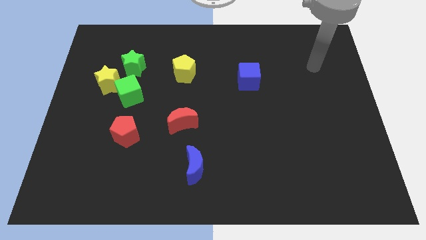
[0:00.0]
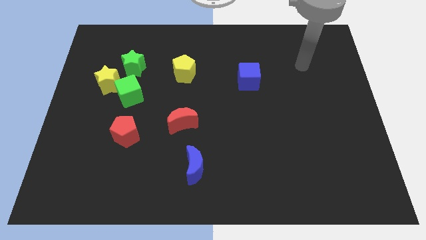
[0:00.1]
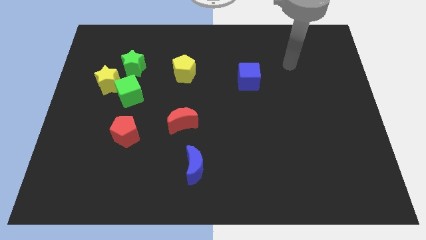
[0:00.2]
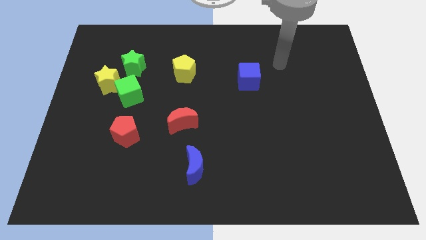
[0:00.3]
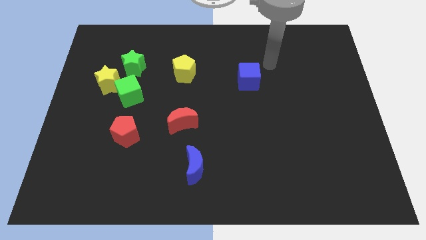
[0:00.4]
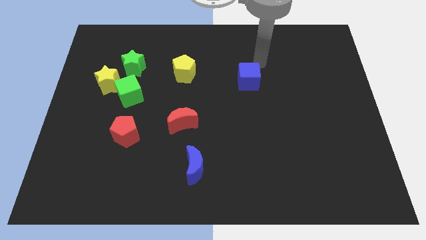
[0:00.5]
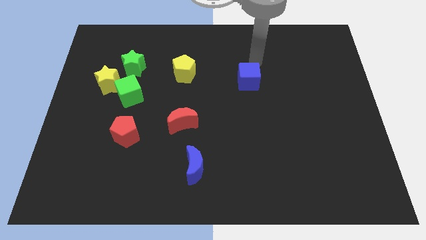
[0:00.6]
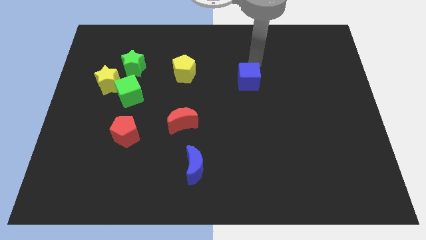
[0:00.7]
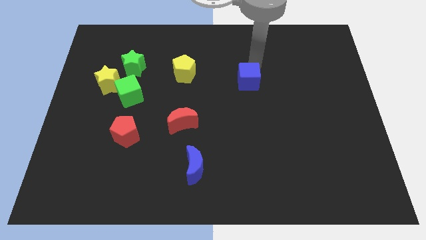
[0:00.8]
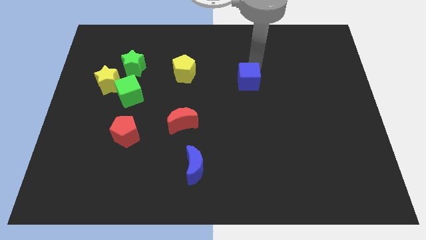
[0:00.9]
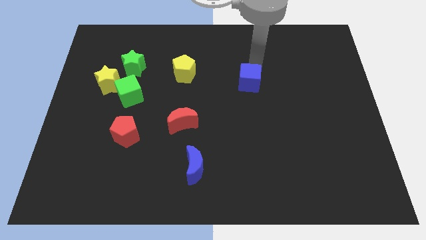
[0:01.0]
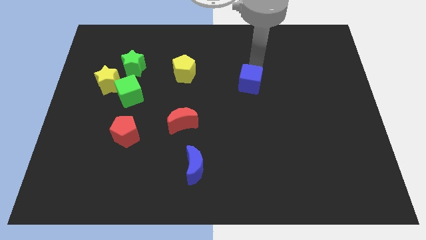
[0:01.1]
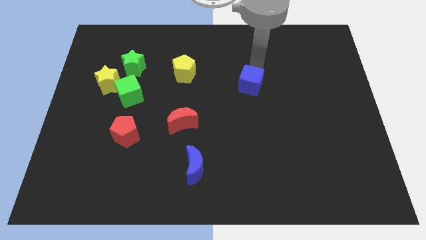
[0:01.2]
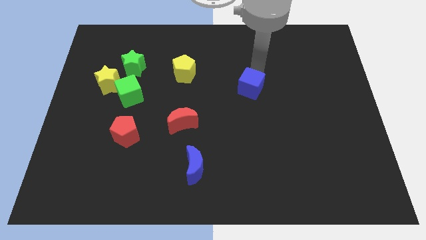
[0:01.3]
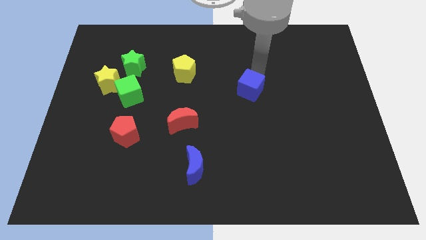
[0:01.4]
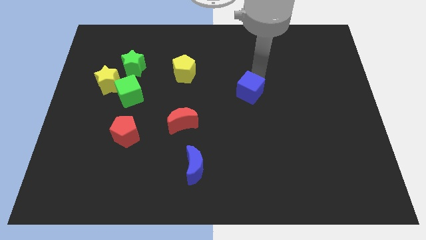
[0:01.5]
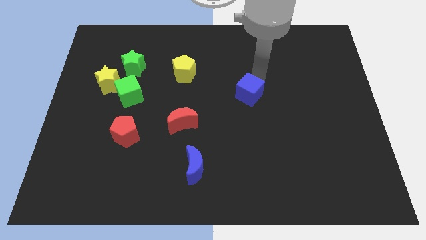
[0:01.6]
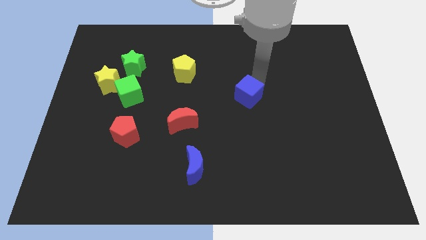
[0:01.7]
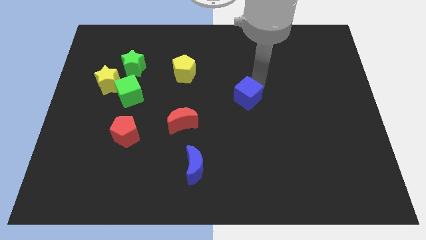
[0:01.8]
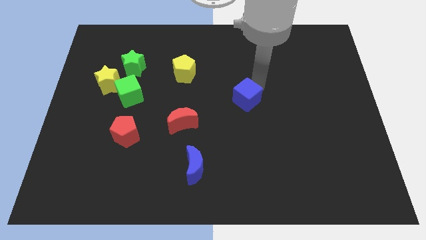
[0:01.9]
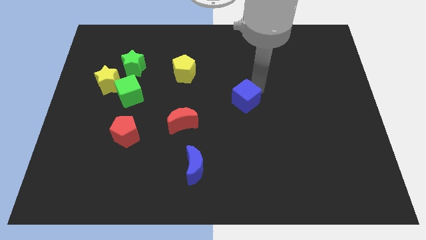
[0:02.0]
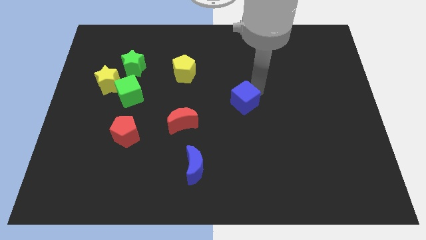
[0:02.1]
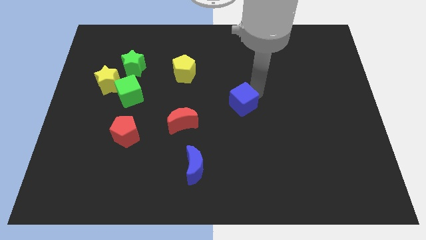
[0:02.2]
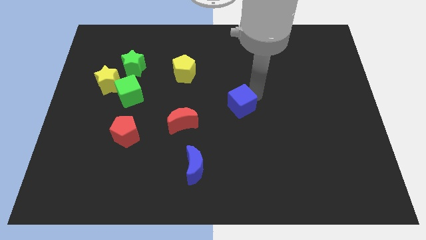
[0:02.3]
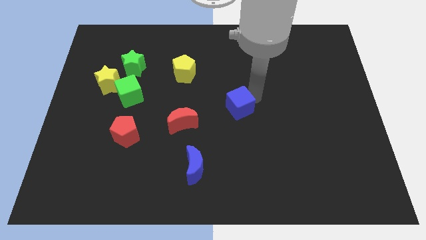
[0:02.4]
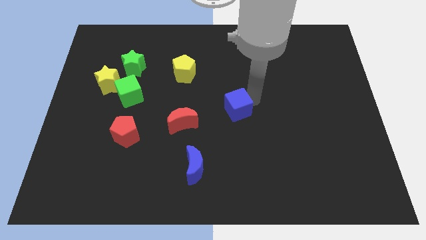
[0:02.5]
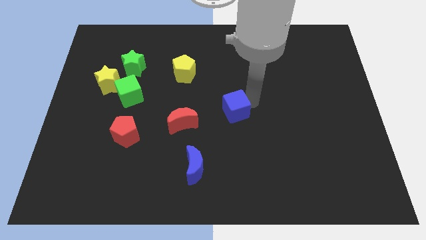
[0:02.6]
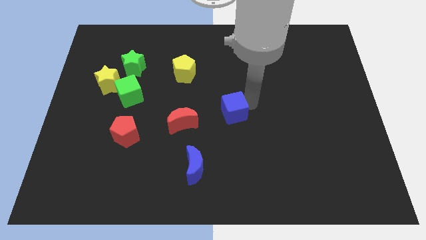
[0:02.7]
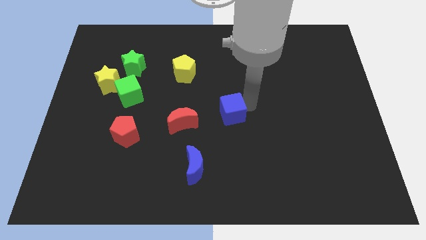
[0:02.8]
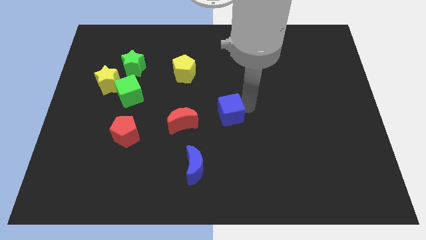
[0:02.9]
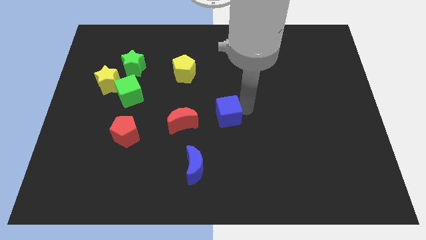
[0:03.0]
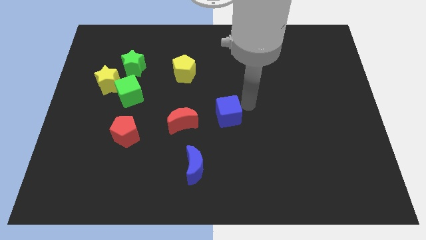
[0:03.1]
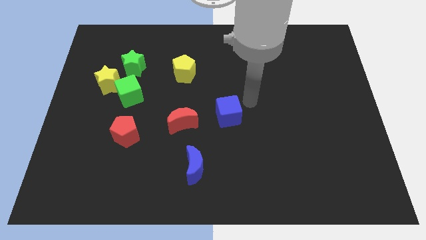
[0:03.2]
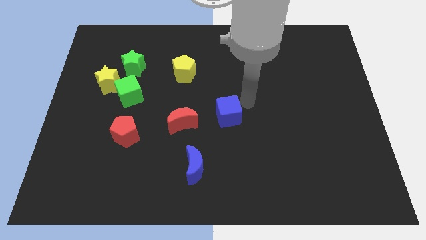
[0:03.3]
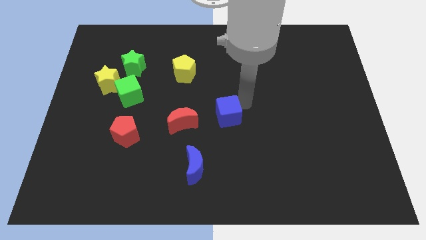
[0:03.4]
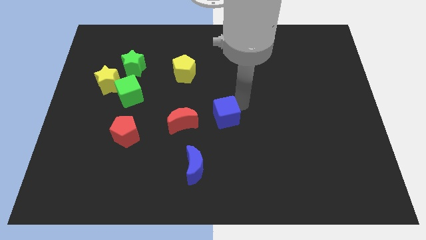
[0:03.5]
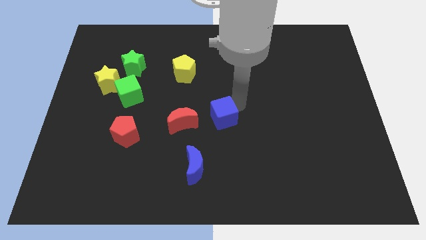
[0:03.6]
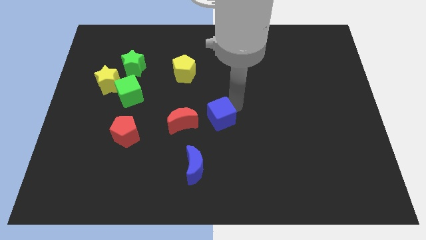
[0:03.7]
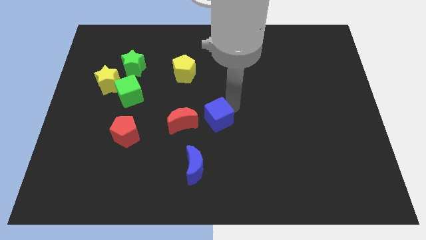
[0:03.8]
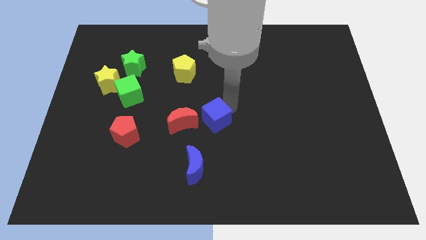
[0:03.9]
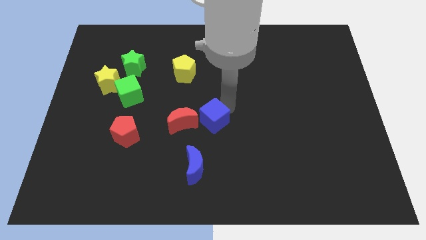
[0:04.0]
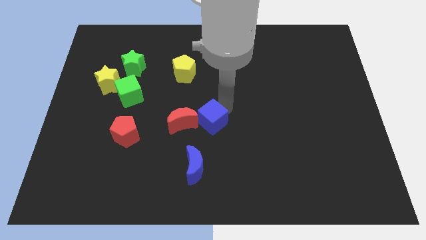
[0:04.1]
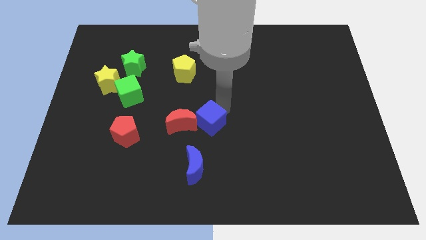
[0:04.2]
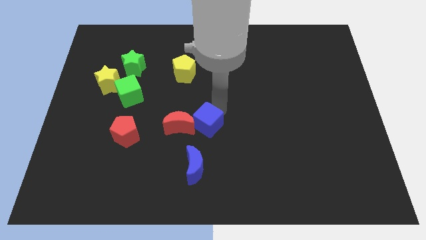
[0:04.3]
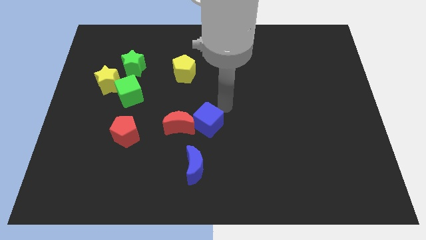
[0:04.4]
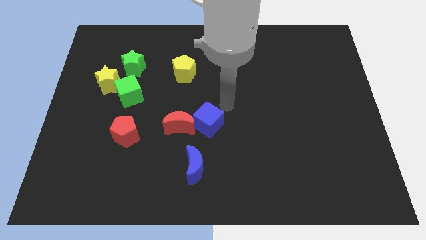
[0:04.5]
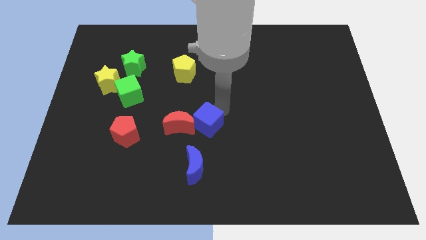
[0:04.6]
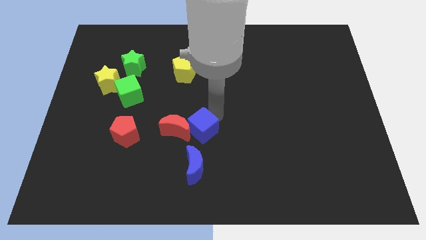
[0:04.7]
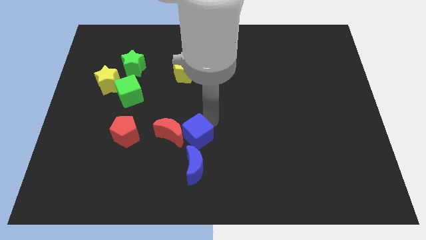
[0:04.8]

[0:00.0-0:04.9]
slide the blue cube down and then to the left

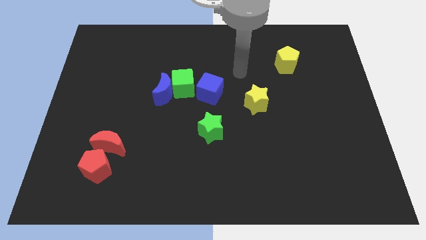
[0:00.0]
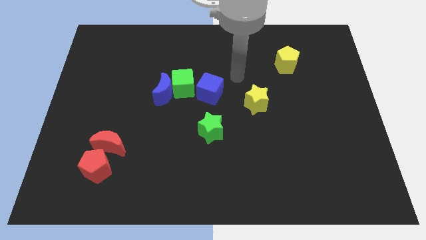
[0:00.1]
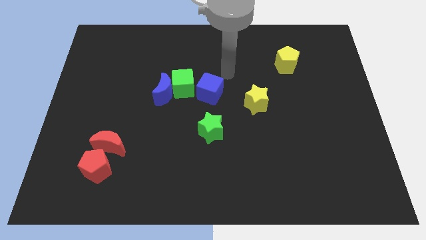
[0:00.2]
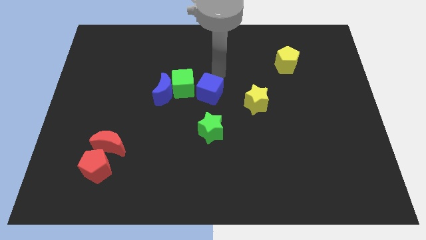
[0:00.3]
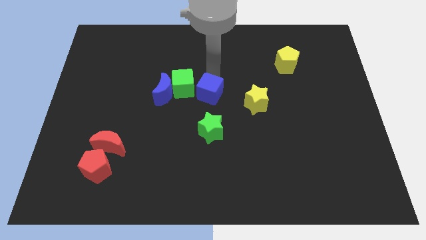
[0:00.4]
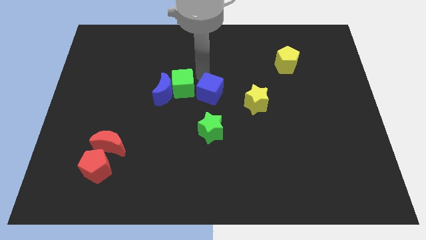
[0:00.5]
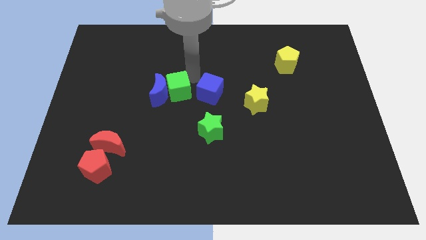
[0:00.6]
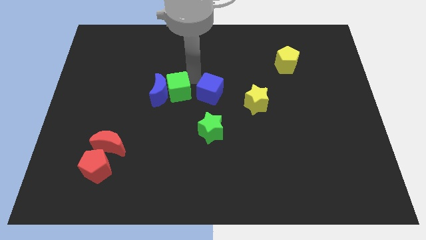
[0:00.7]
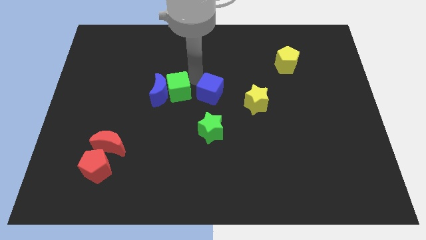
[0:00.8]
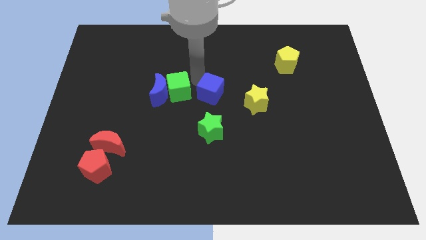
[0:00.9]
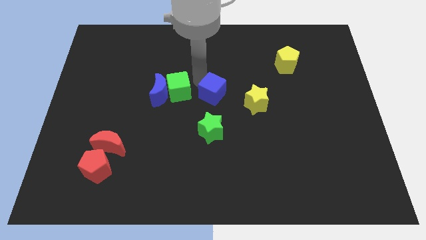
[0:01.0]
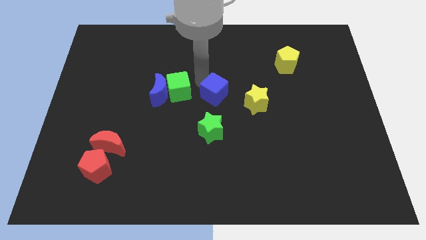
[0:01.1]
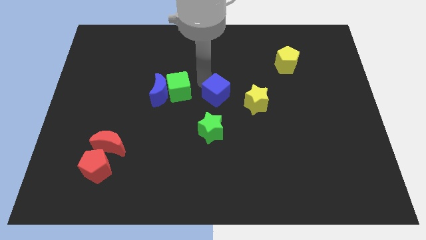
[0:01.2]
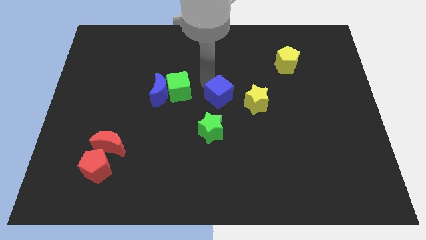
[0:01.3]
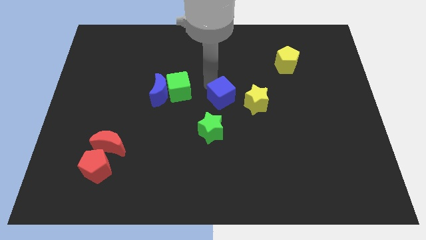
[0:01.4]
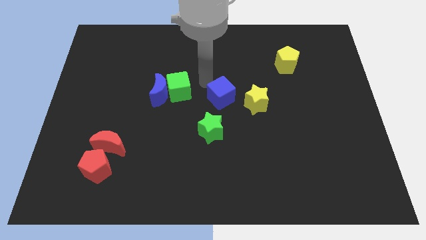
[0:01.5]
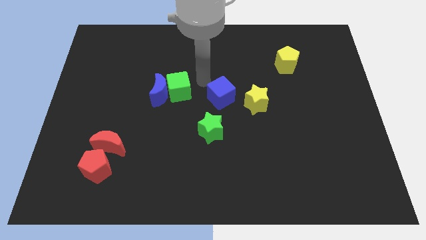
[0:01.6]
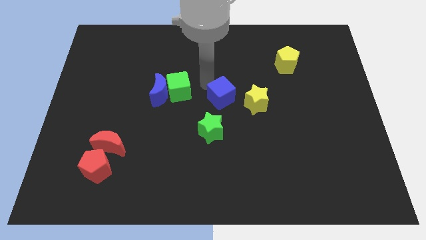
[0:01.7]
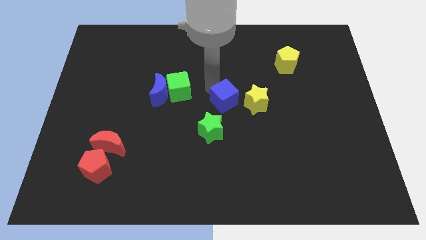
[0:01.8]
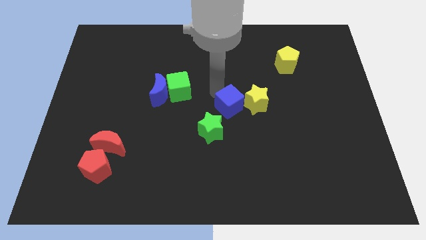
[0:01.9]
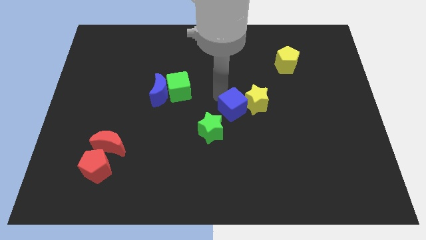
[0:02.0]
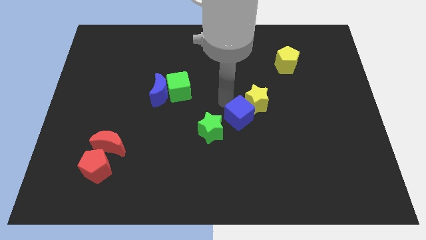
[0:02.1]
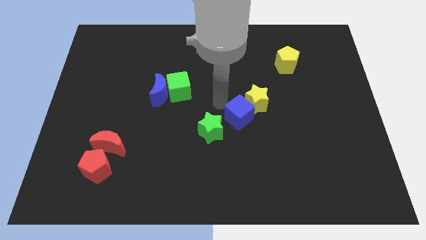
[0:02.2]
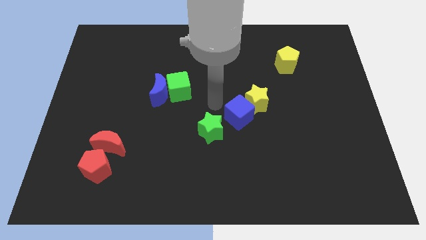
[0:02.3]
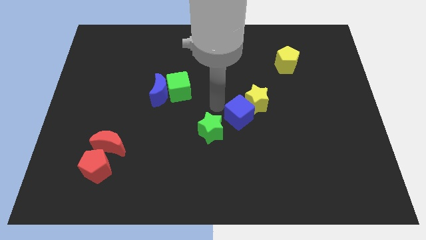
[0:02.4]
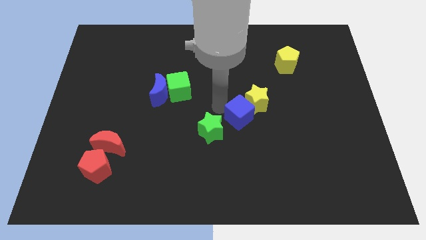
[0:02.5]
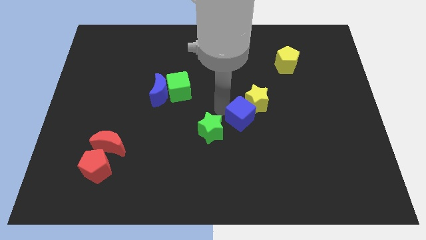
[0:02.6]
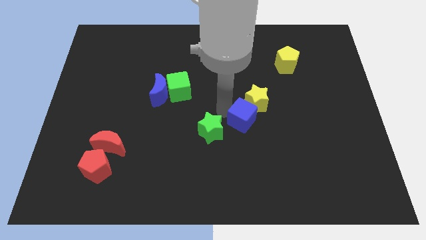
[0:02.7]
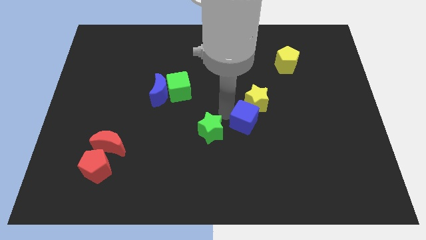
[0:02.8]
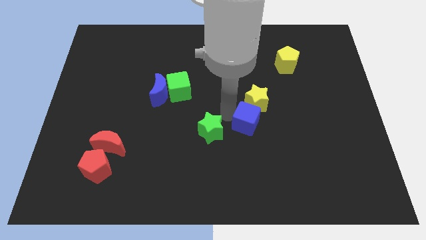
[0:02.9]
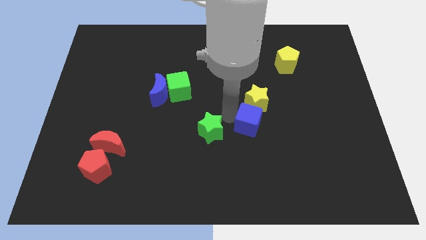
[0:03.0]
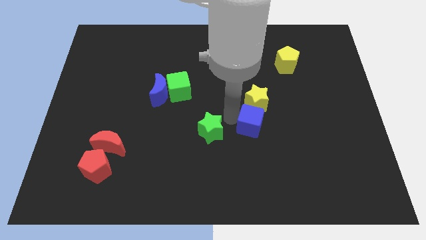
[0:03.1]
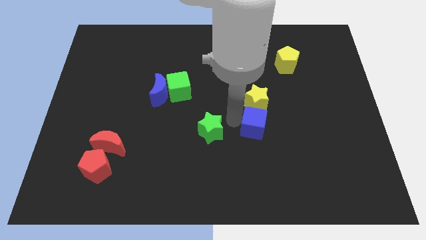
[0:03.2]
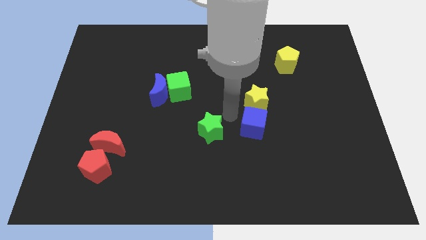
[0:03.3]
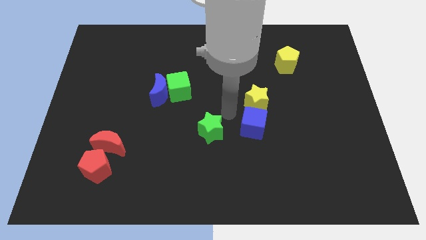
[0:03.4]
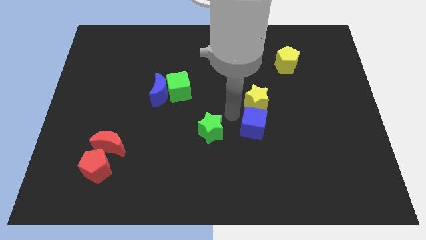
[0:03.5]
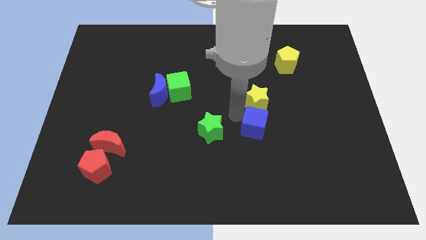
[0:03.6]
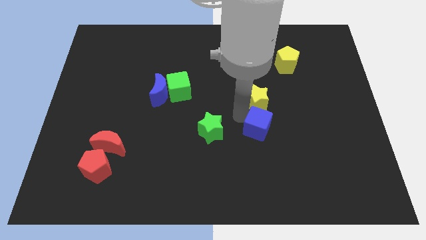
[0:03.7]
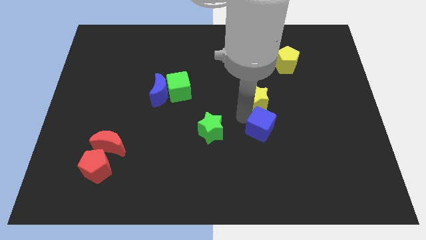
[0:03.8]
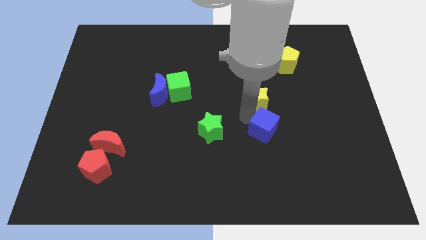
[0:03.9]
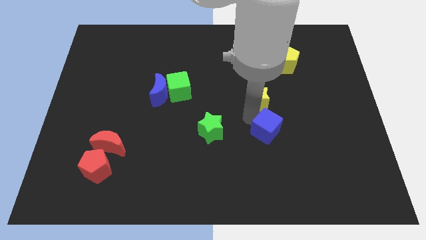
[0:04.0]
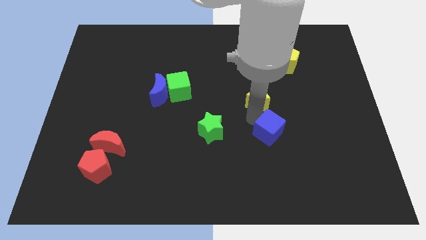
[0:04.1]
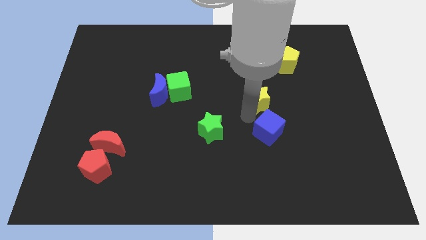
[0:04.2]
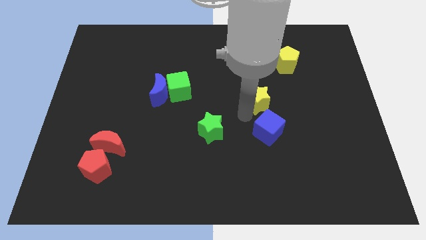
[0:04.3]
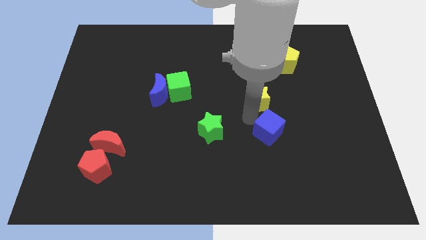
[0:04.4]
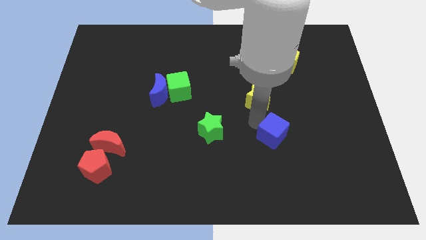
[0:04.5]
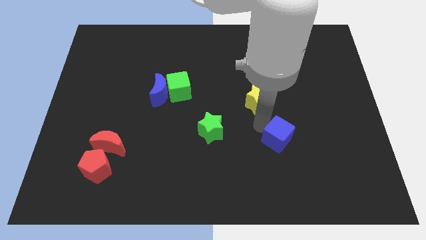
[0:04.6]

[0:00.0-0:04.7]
slide the blue cube downwards and then right
